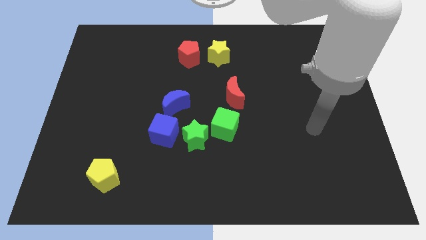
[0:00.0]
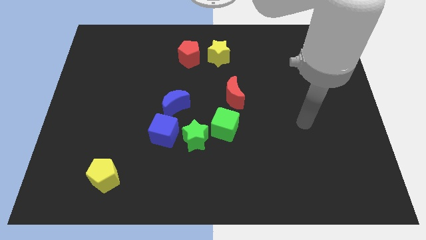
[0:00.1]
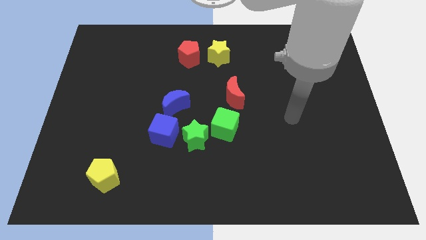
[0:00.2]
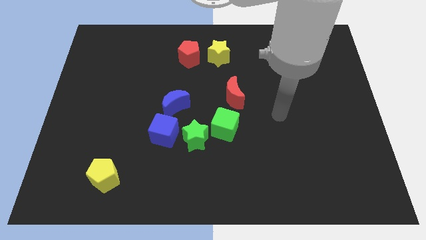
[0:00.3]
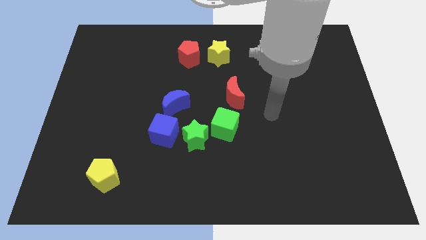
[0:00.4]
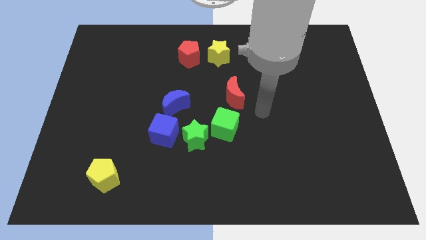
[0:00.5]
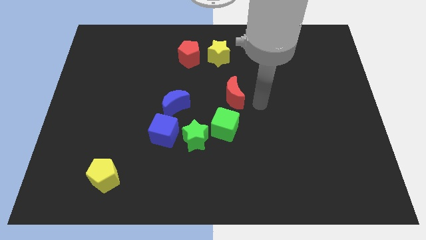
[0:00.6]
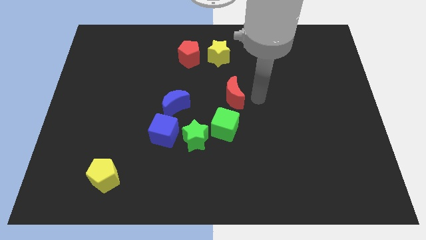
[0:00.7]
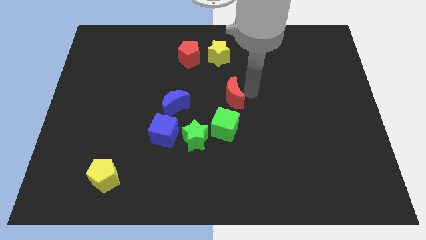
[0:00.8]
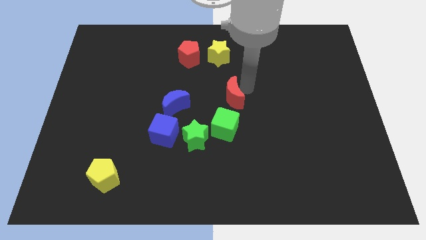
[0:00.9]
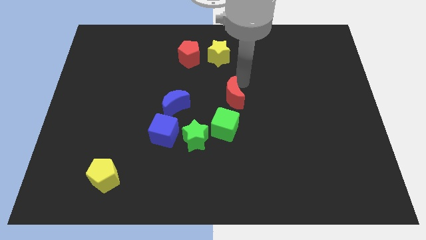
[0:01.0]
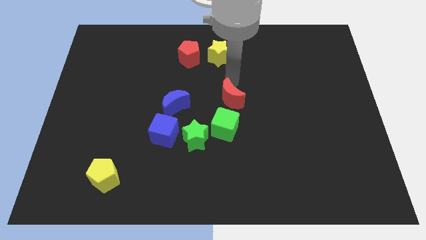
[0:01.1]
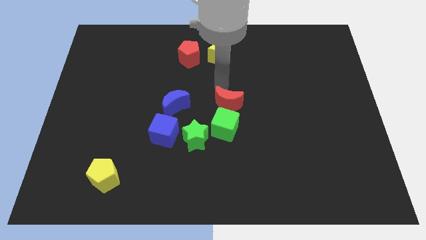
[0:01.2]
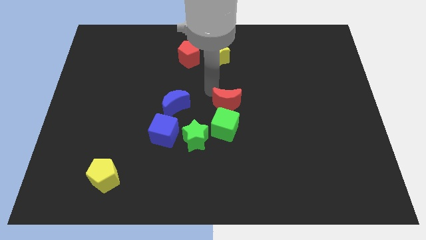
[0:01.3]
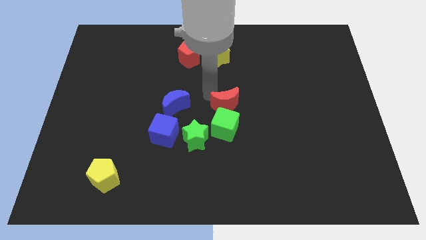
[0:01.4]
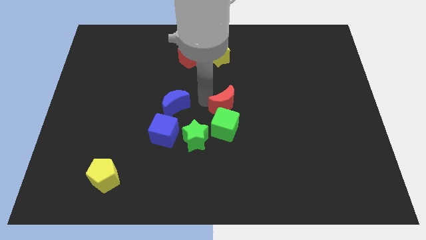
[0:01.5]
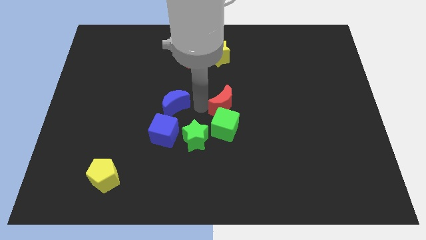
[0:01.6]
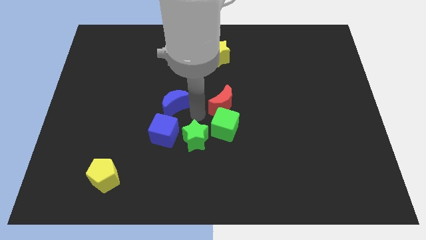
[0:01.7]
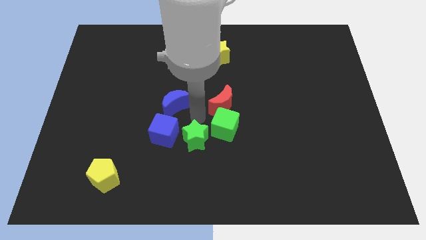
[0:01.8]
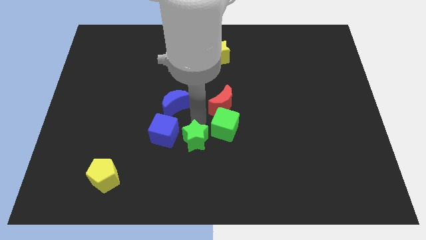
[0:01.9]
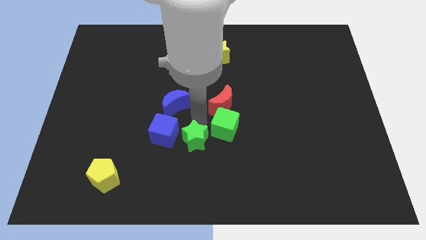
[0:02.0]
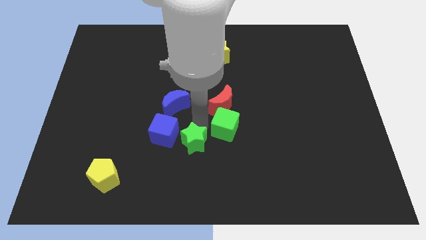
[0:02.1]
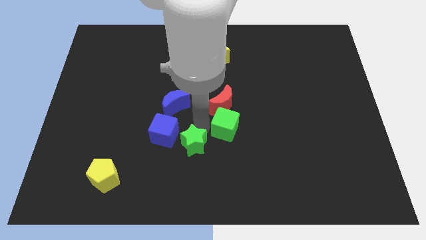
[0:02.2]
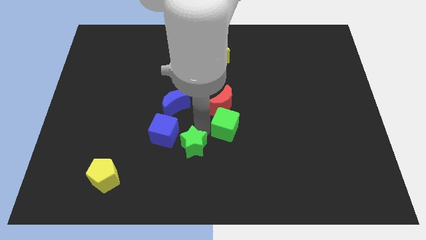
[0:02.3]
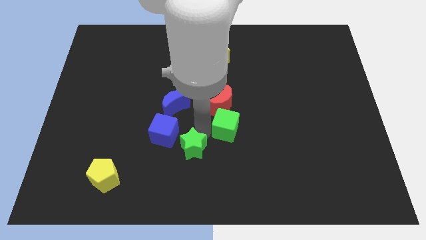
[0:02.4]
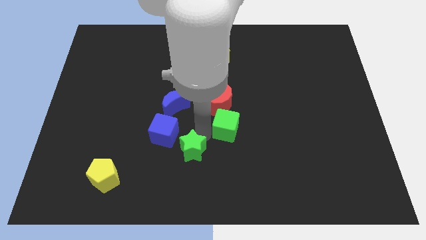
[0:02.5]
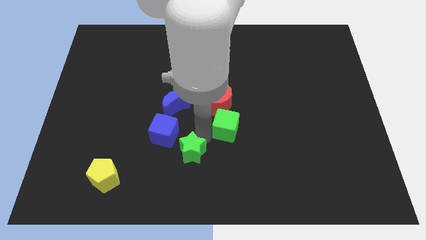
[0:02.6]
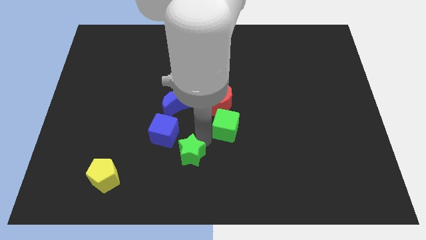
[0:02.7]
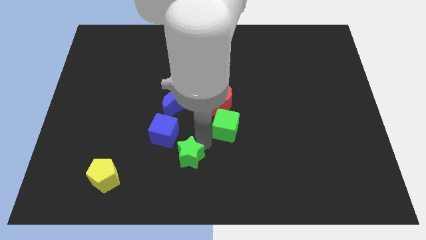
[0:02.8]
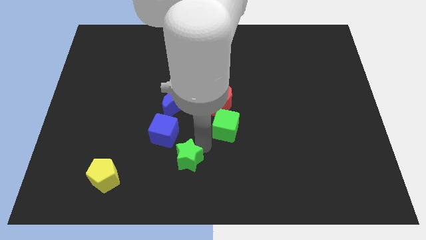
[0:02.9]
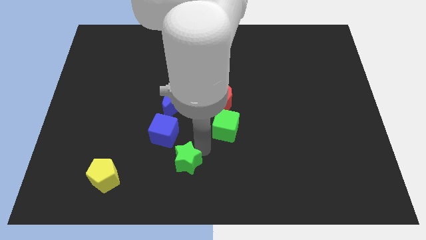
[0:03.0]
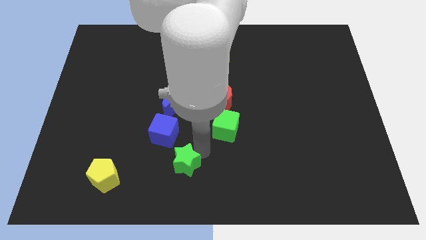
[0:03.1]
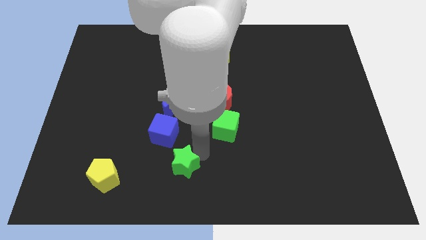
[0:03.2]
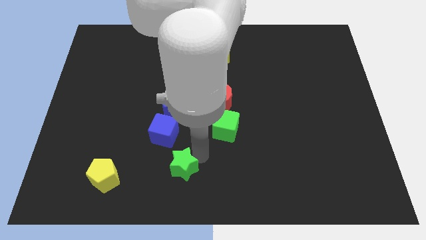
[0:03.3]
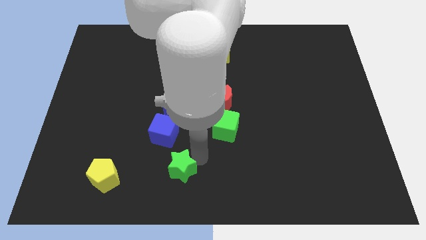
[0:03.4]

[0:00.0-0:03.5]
move the green star away from the green cube and blue cube

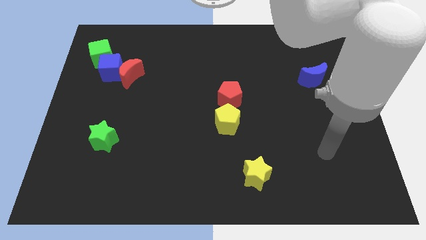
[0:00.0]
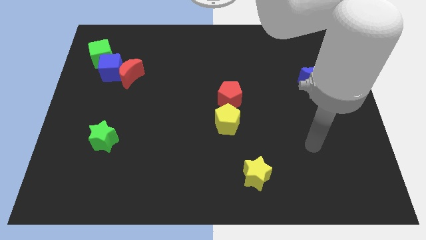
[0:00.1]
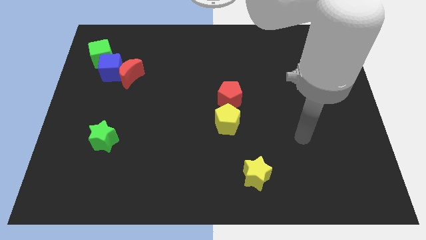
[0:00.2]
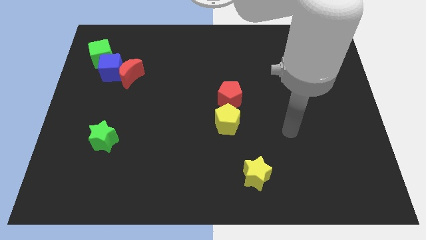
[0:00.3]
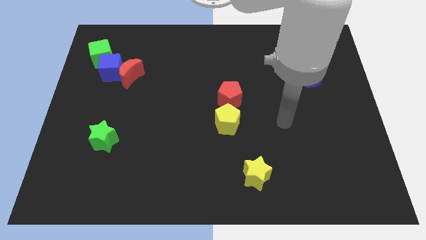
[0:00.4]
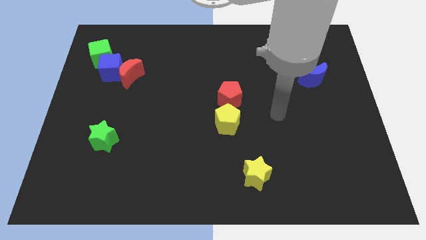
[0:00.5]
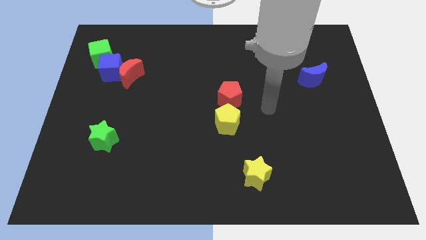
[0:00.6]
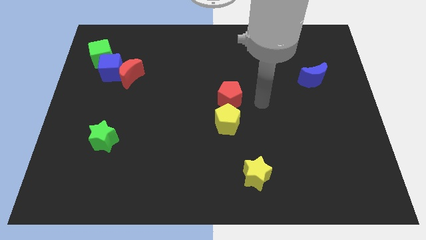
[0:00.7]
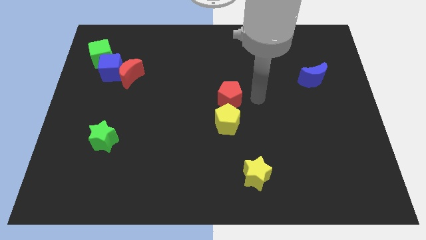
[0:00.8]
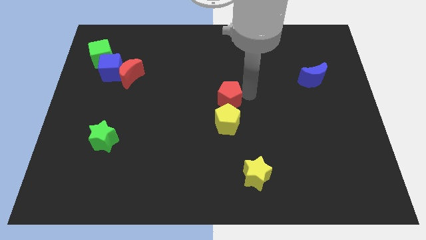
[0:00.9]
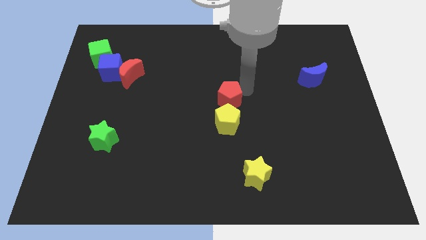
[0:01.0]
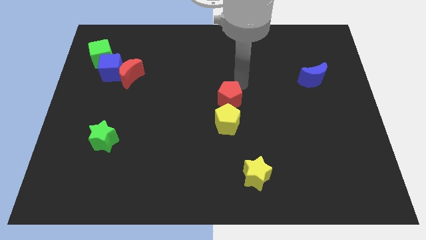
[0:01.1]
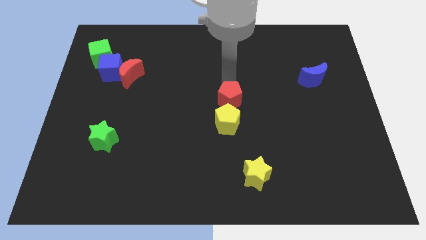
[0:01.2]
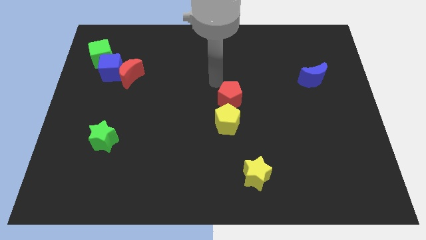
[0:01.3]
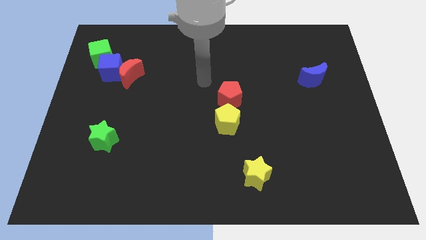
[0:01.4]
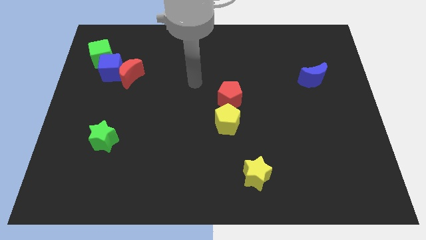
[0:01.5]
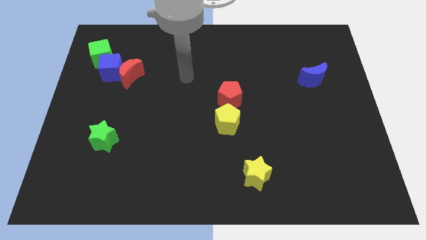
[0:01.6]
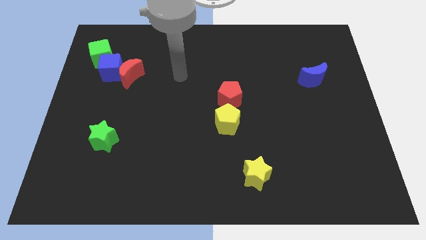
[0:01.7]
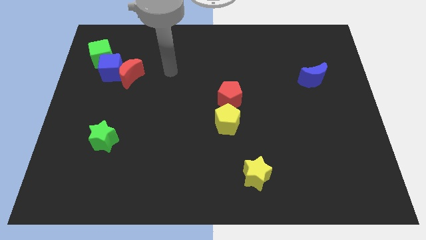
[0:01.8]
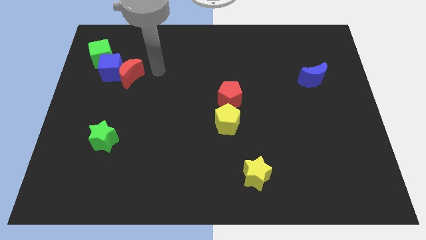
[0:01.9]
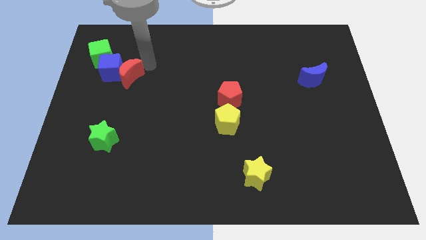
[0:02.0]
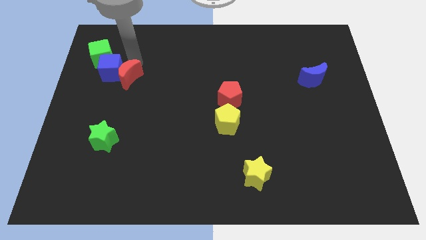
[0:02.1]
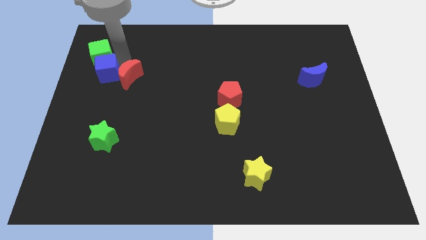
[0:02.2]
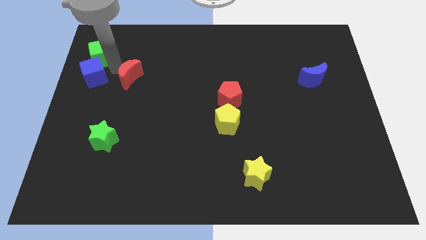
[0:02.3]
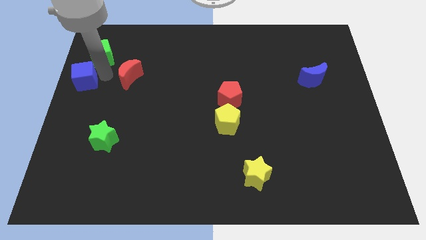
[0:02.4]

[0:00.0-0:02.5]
pull the red moon apart from the blue cube

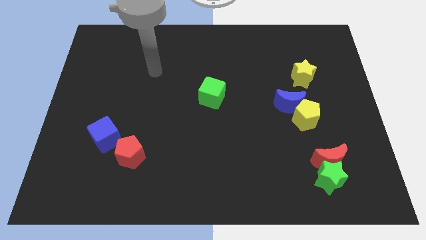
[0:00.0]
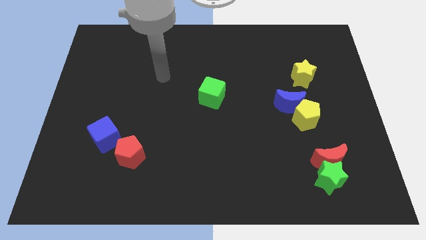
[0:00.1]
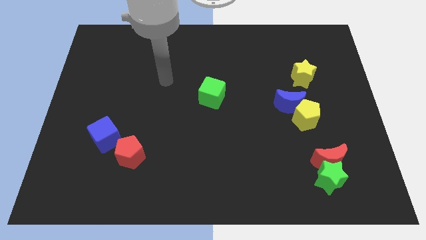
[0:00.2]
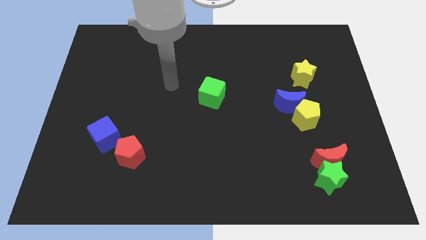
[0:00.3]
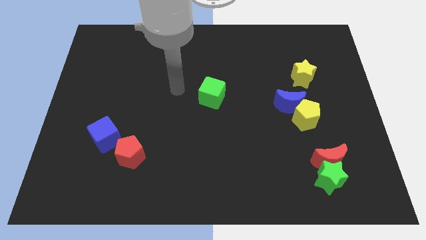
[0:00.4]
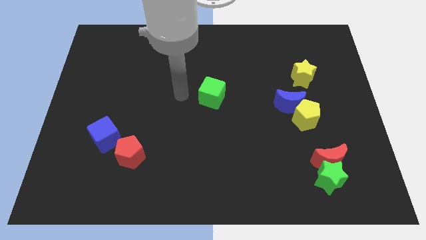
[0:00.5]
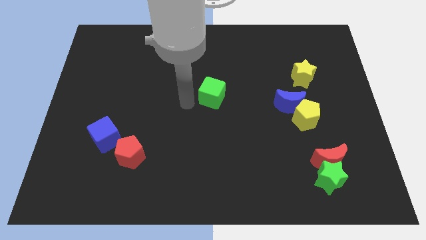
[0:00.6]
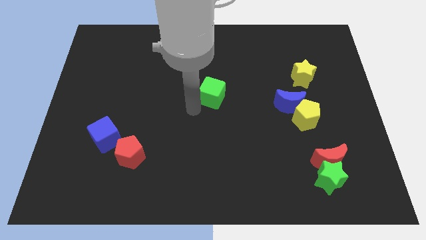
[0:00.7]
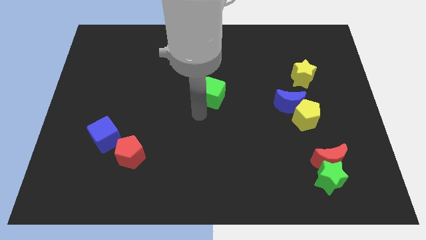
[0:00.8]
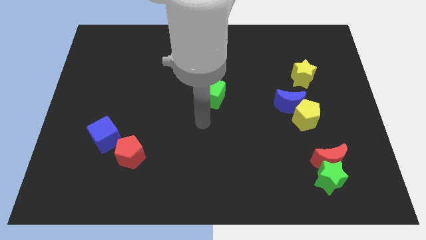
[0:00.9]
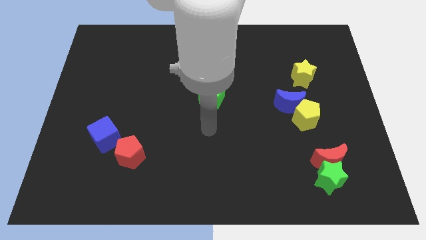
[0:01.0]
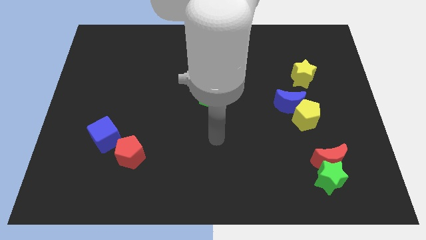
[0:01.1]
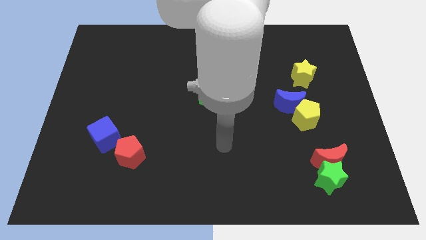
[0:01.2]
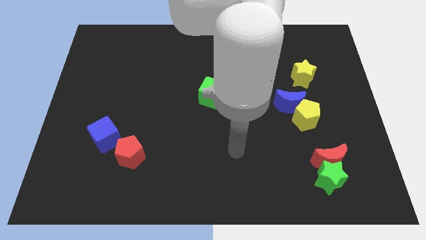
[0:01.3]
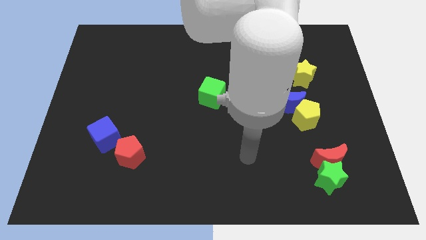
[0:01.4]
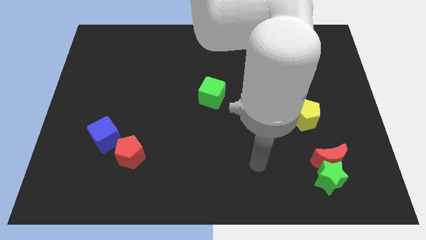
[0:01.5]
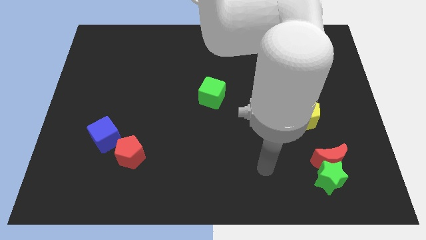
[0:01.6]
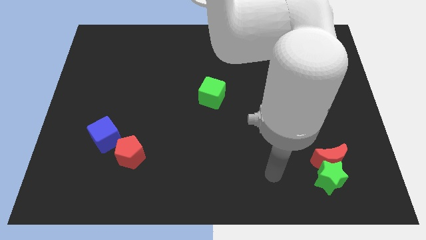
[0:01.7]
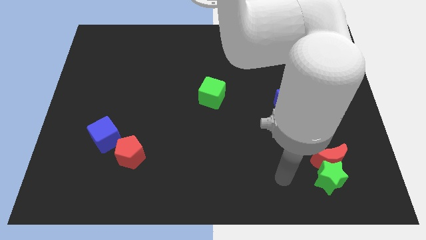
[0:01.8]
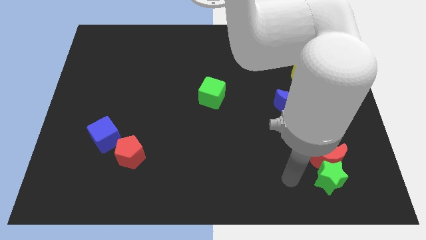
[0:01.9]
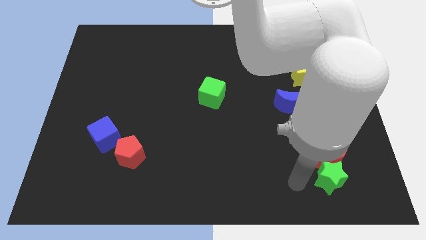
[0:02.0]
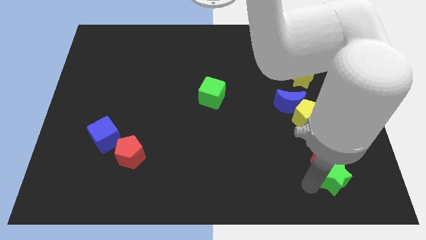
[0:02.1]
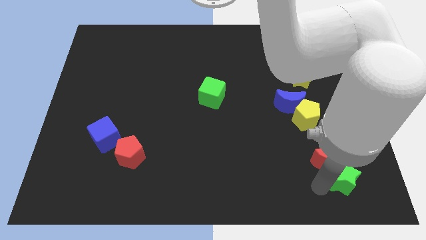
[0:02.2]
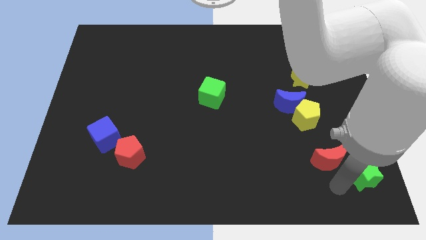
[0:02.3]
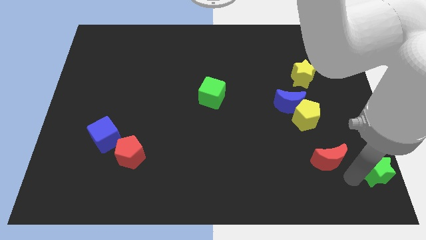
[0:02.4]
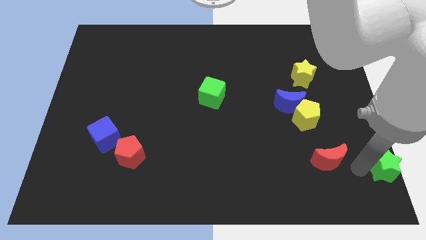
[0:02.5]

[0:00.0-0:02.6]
separate the red moon from the green star

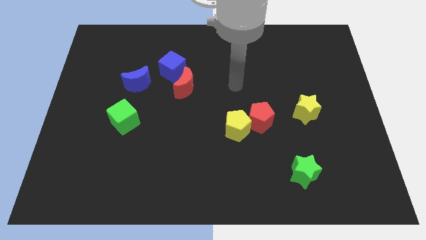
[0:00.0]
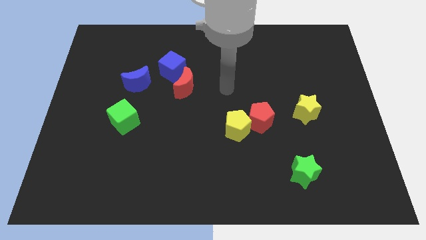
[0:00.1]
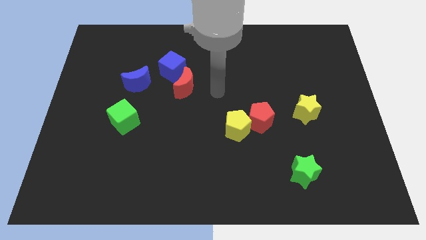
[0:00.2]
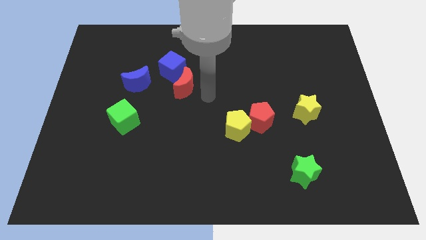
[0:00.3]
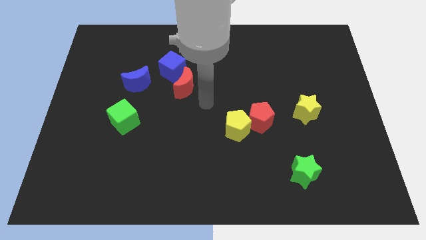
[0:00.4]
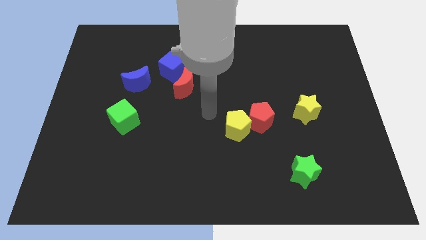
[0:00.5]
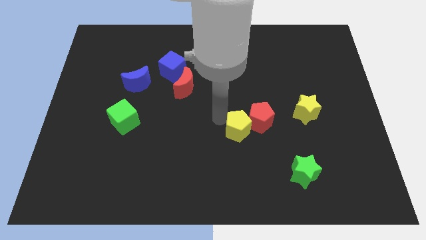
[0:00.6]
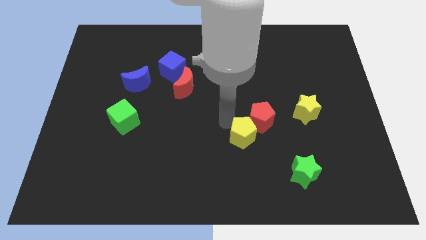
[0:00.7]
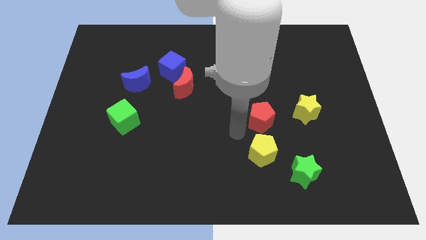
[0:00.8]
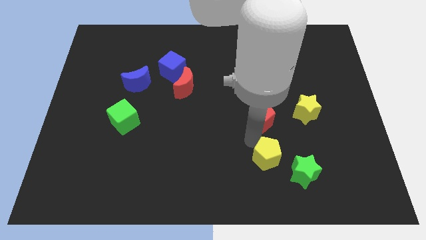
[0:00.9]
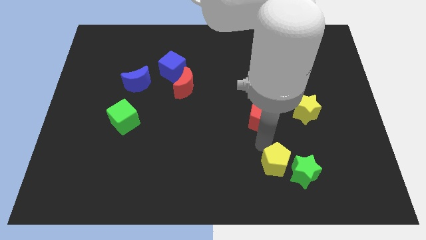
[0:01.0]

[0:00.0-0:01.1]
pull the red pentagon apart from the yellow pentagon
